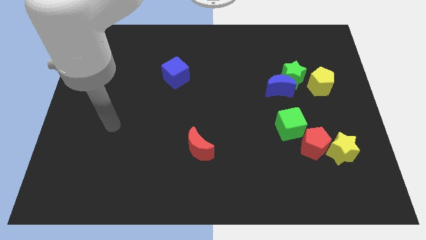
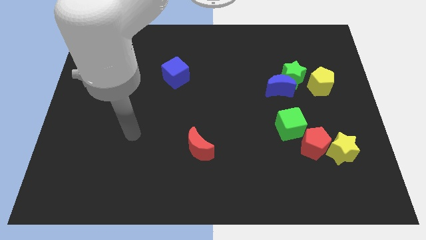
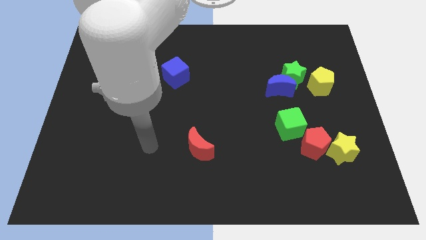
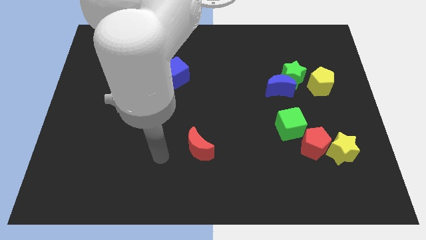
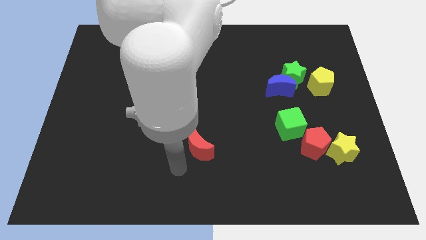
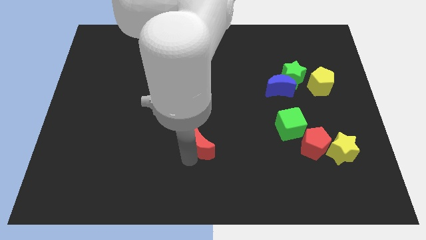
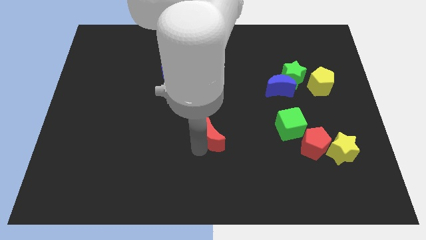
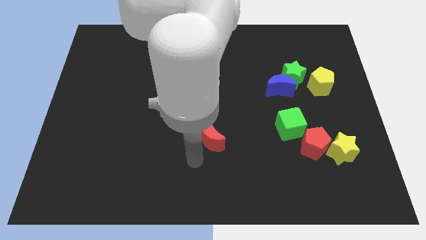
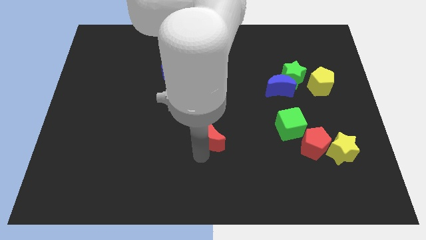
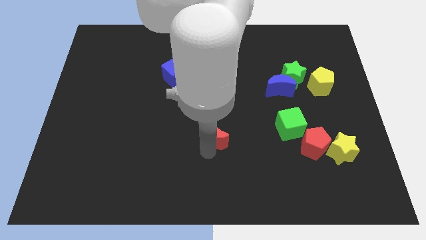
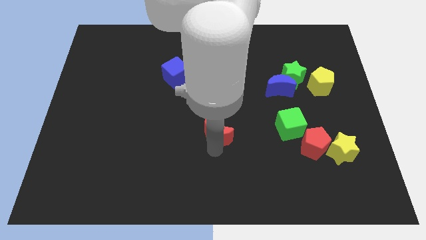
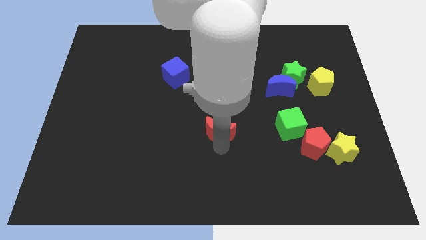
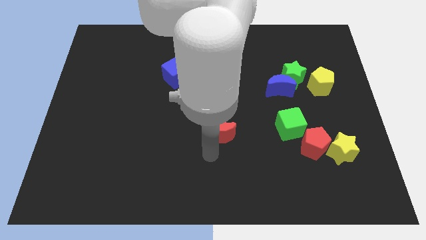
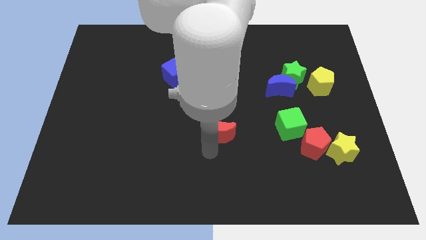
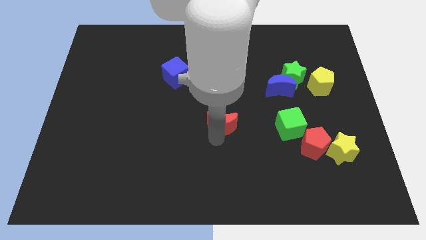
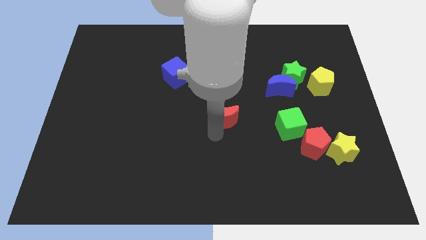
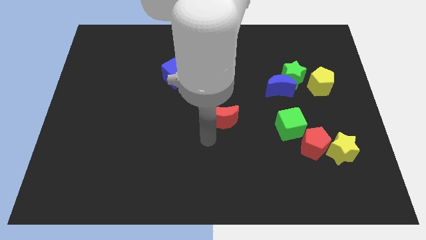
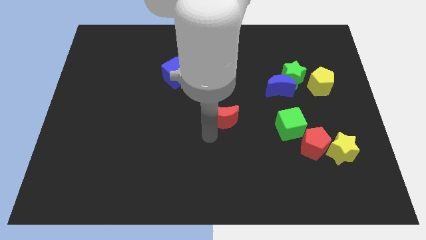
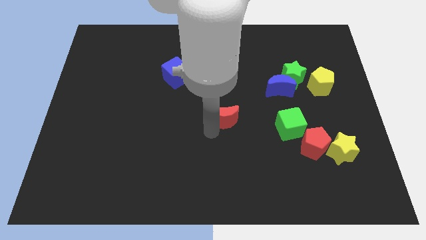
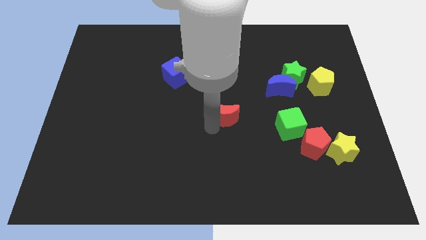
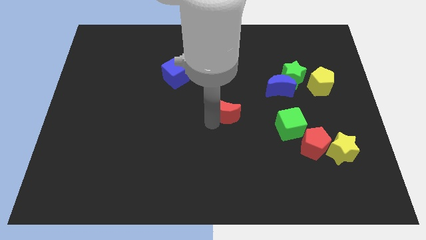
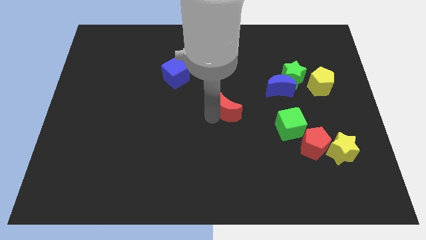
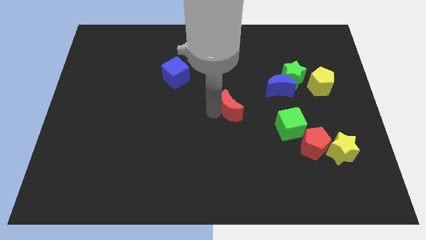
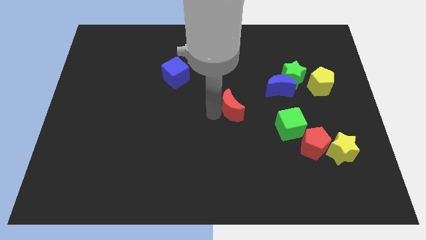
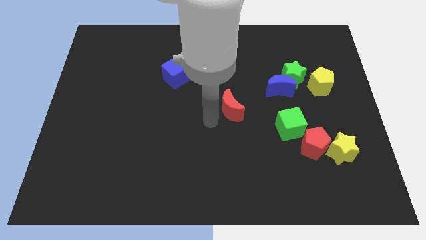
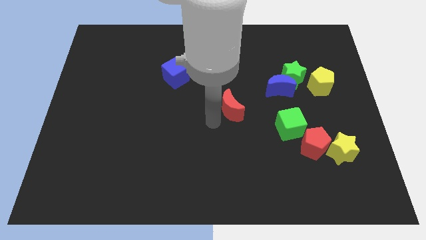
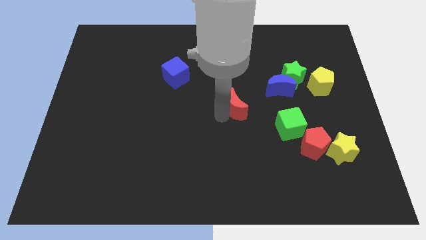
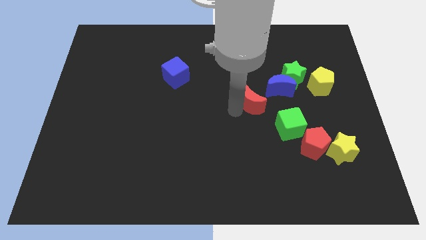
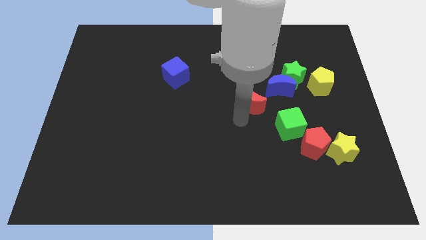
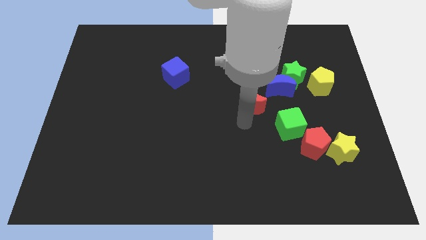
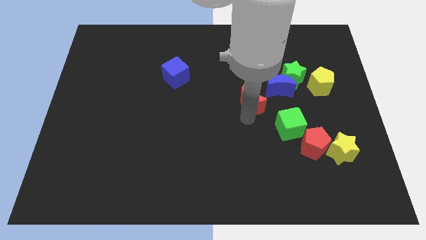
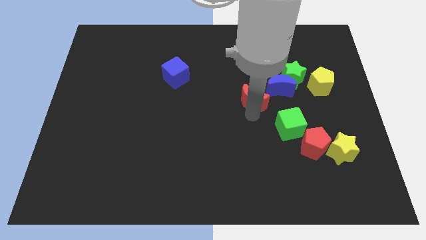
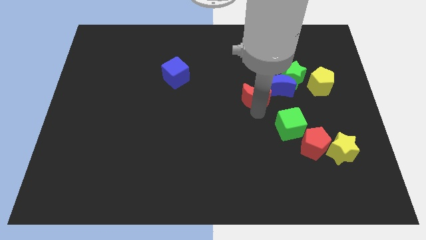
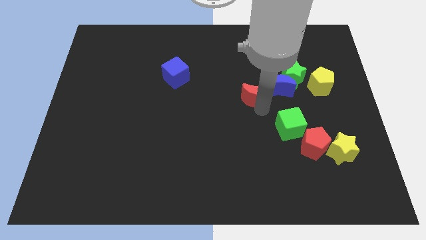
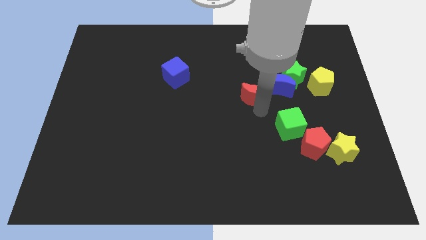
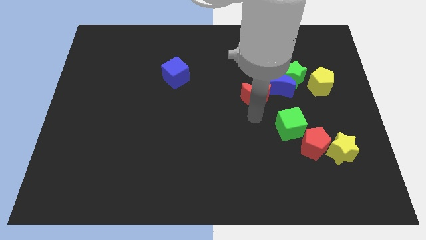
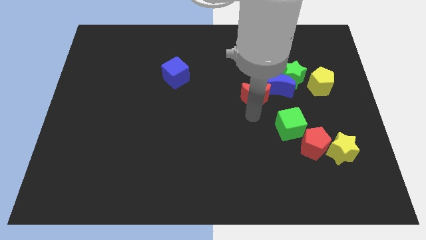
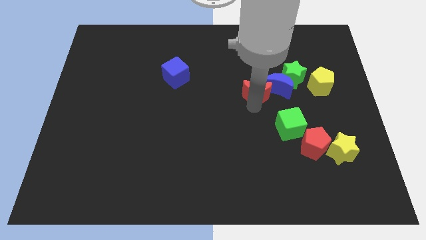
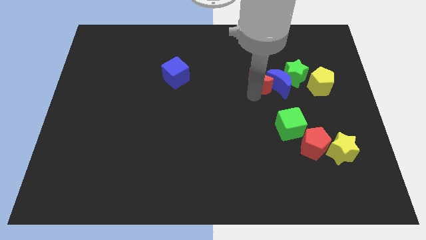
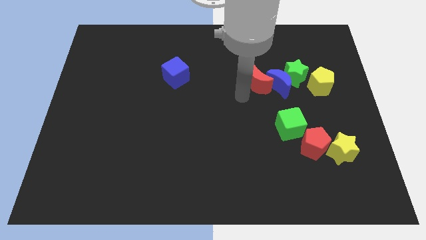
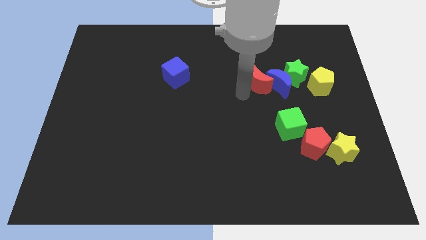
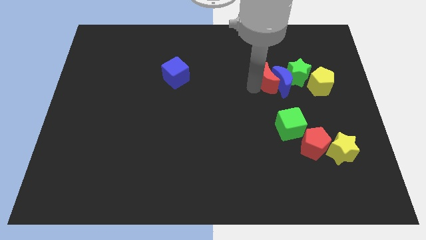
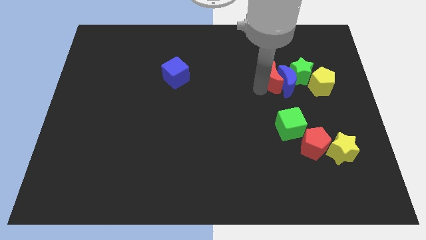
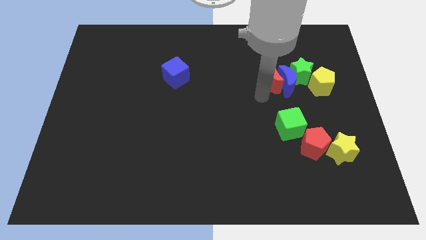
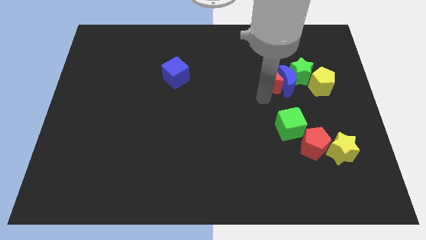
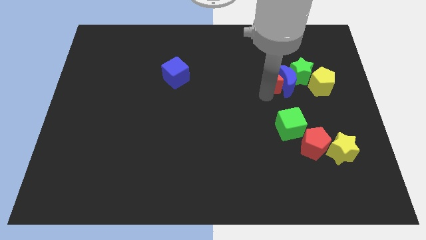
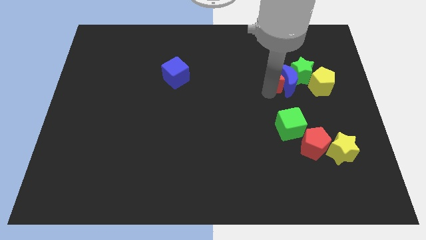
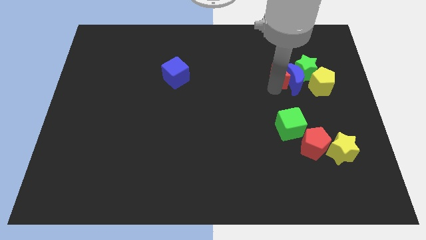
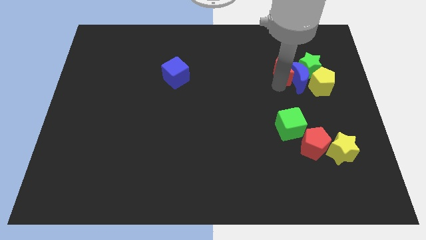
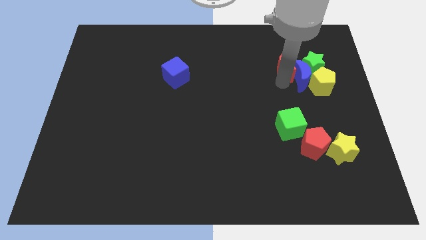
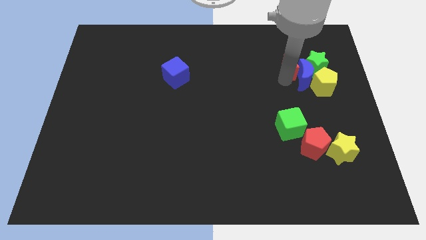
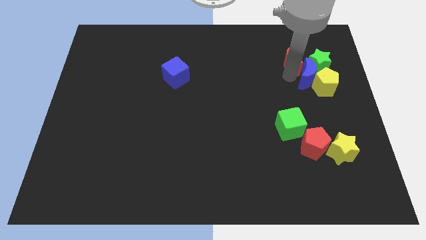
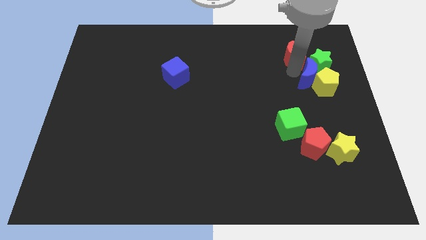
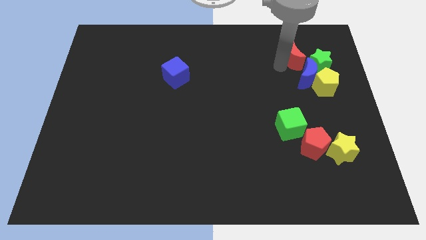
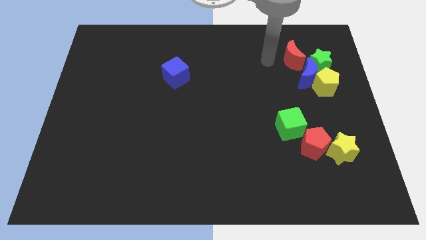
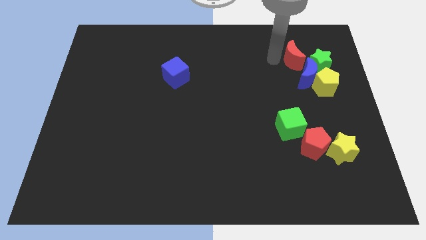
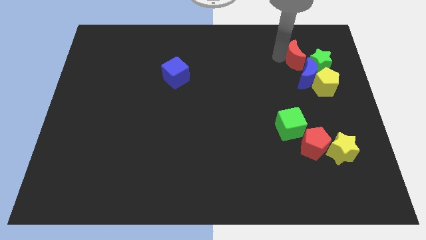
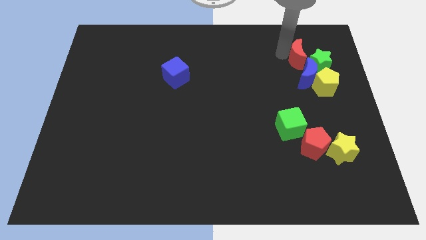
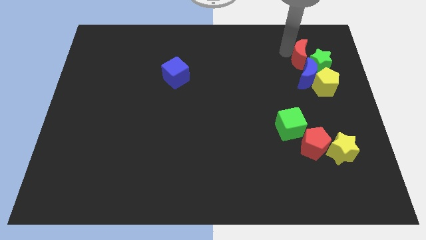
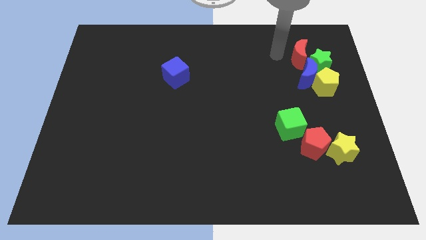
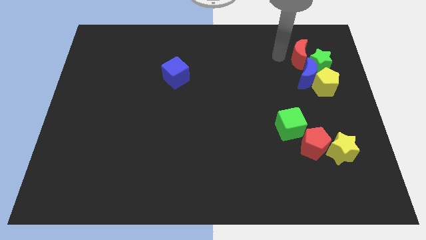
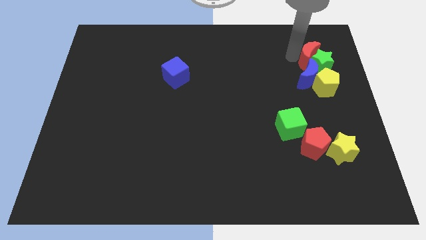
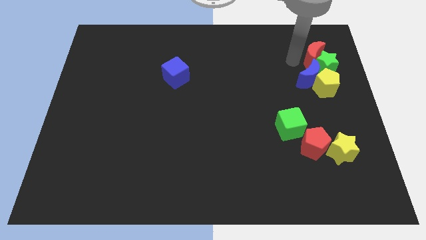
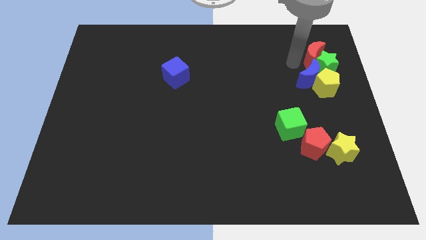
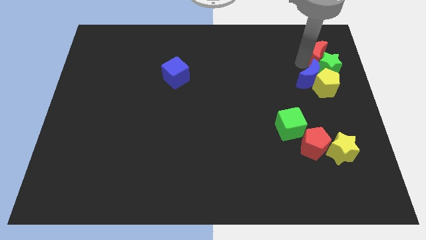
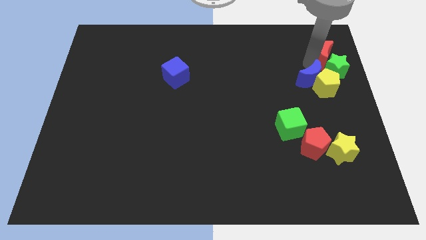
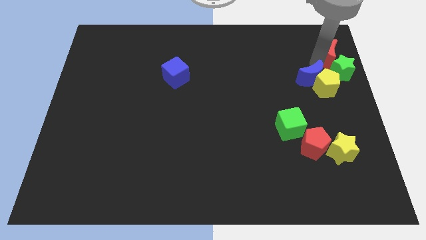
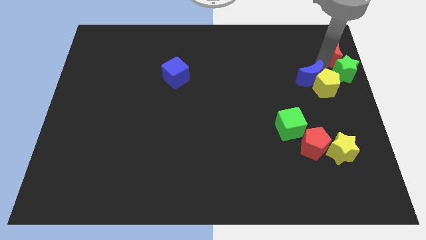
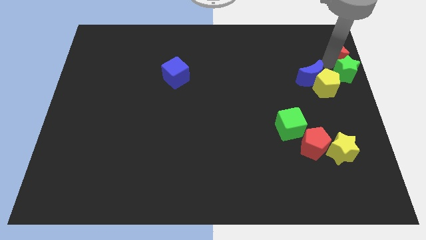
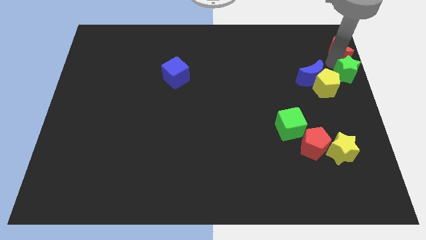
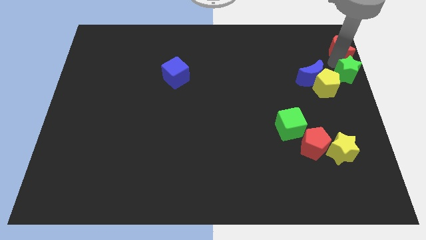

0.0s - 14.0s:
push the red moon to the top right corner
